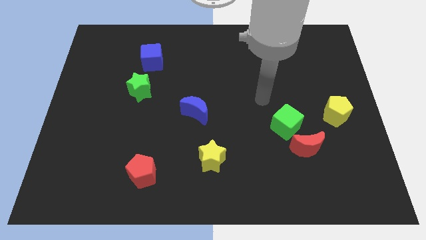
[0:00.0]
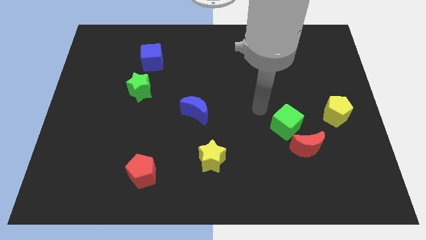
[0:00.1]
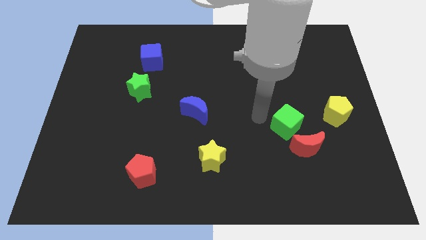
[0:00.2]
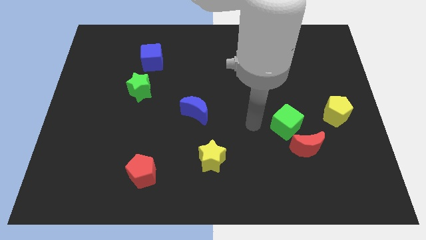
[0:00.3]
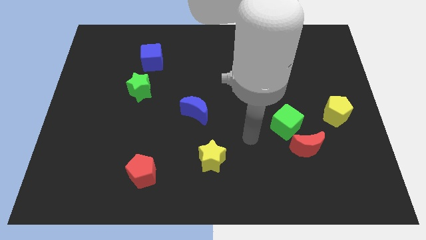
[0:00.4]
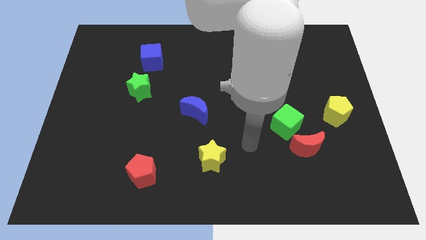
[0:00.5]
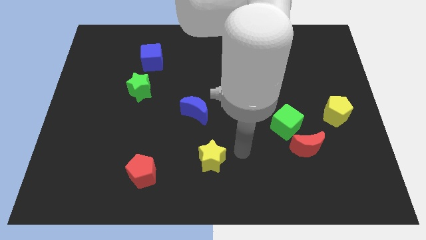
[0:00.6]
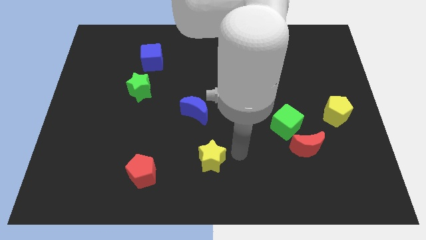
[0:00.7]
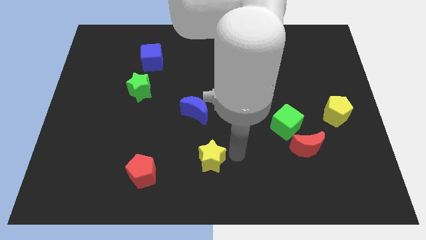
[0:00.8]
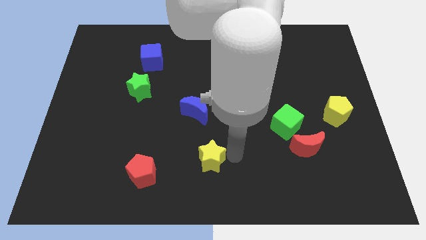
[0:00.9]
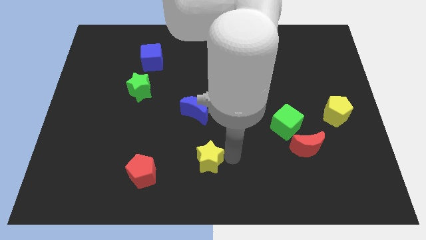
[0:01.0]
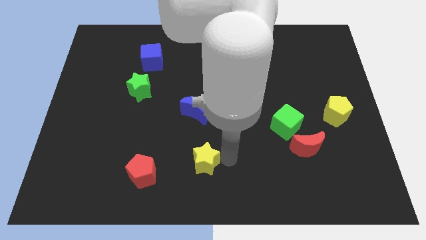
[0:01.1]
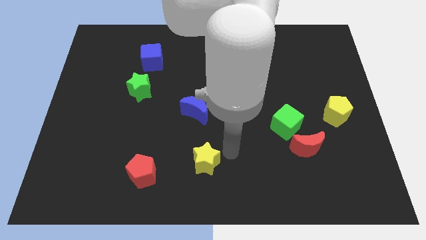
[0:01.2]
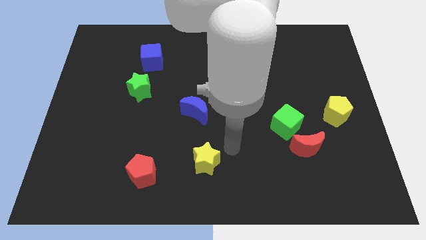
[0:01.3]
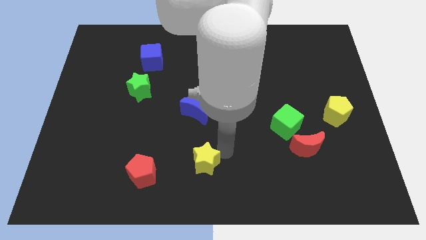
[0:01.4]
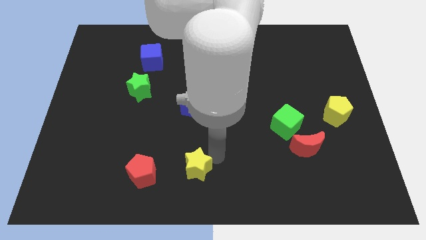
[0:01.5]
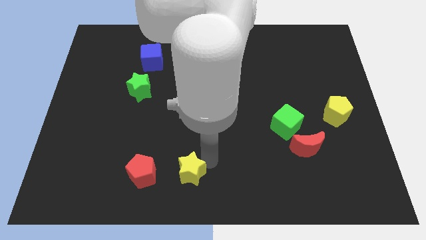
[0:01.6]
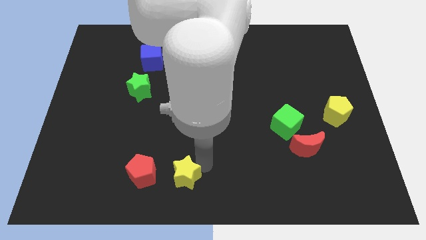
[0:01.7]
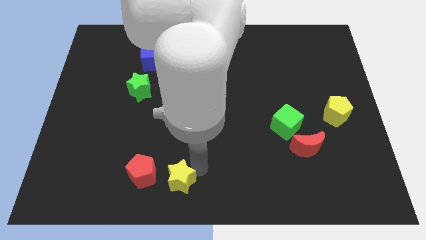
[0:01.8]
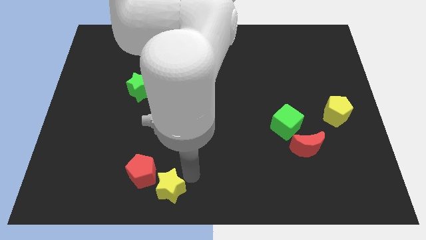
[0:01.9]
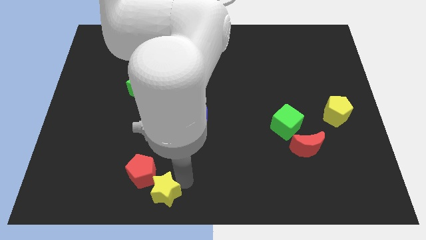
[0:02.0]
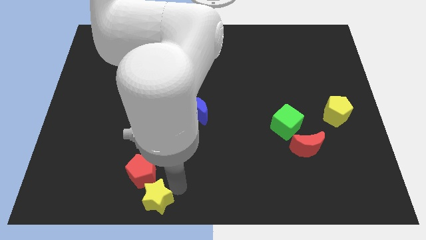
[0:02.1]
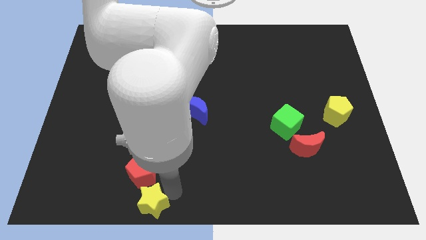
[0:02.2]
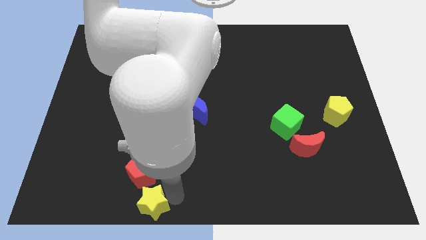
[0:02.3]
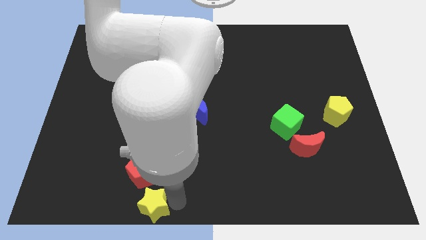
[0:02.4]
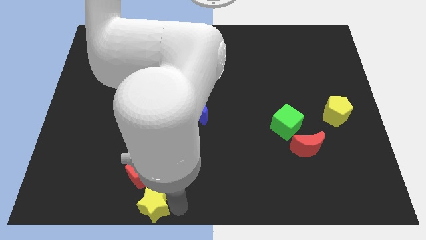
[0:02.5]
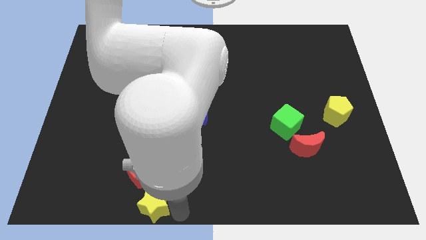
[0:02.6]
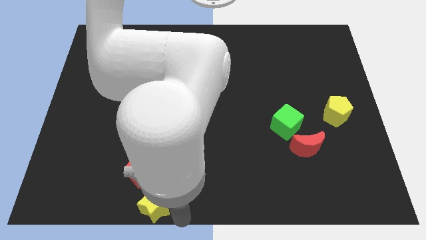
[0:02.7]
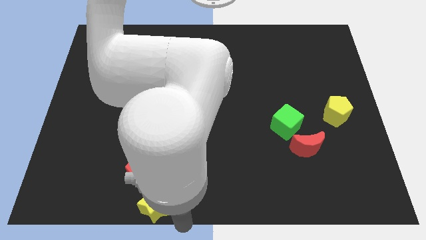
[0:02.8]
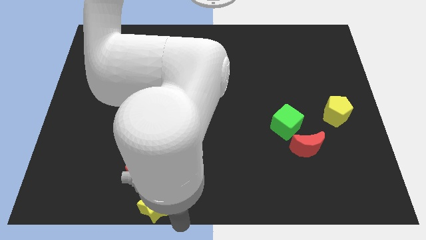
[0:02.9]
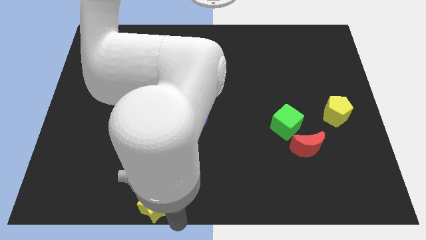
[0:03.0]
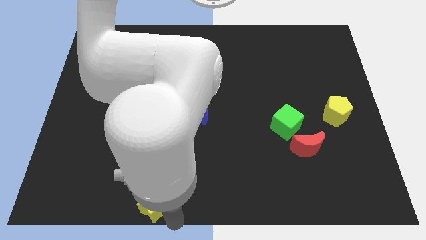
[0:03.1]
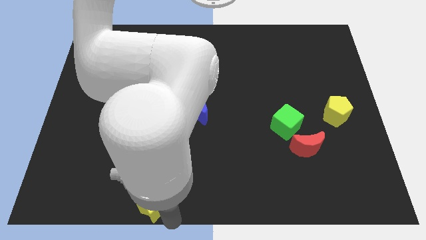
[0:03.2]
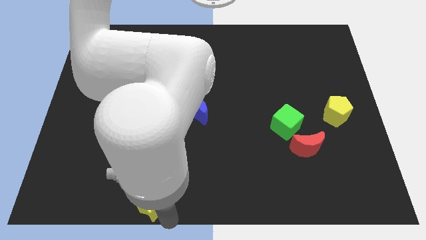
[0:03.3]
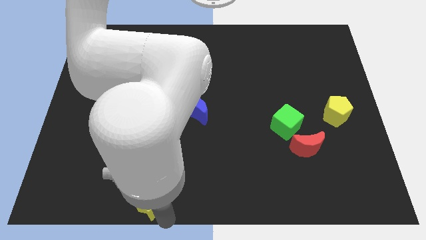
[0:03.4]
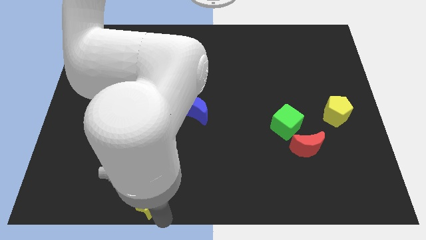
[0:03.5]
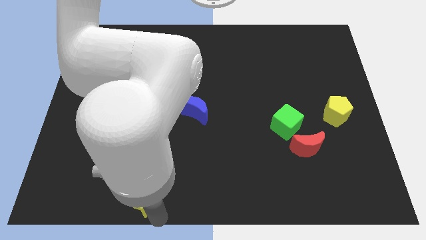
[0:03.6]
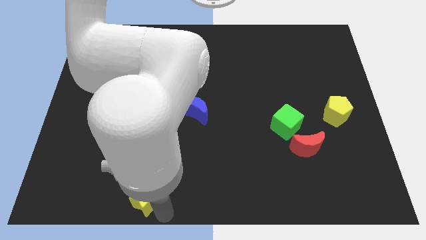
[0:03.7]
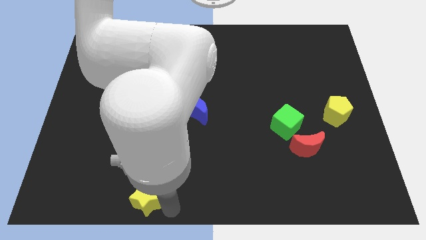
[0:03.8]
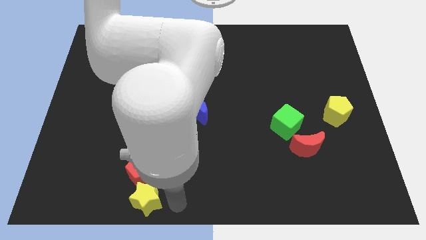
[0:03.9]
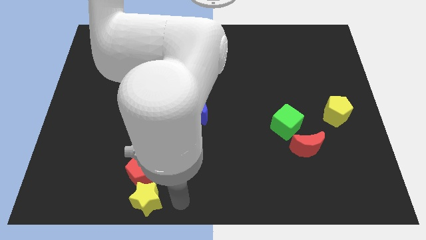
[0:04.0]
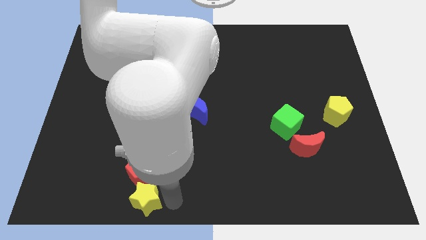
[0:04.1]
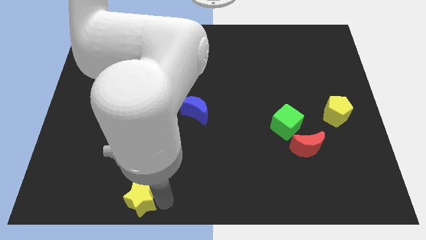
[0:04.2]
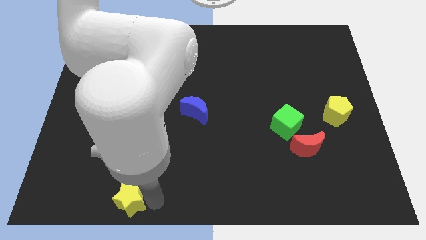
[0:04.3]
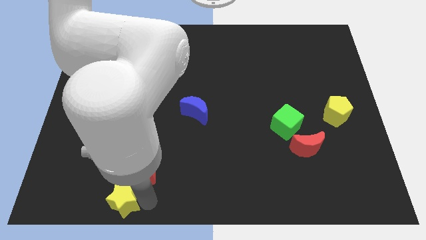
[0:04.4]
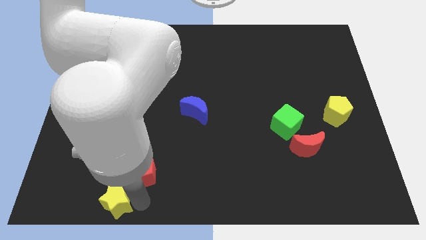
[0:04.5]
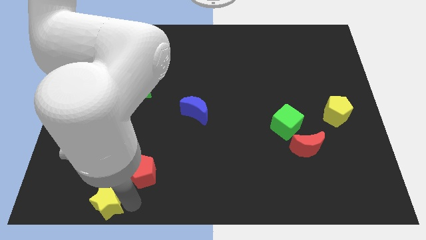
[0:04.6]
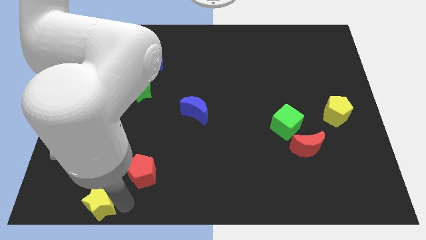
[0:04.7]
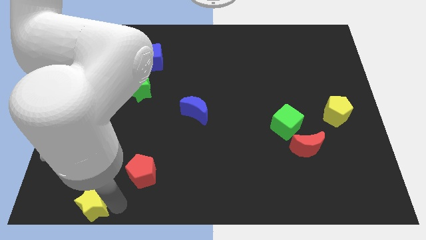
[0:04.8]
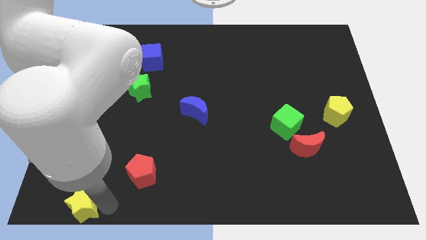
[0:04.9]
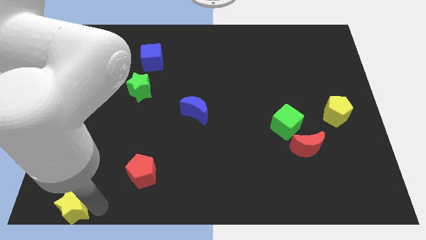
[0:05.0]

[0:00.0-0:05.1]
slide the yellow star to the bottom left of the board

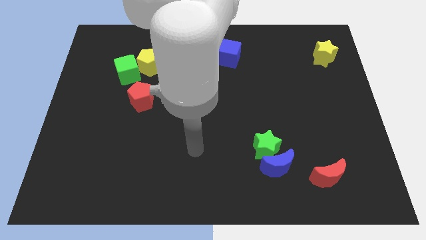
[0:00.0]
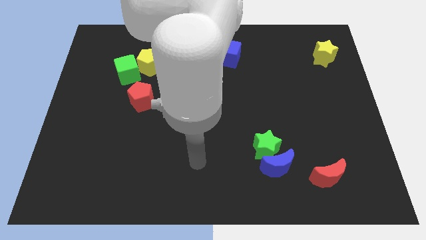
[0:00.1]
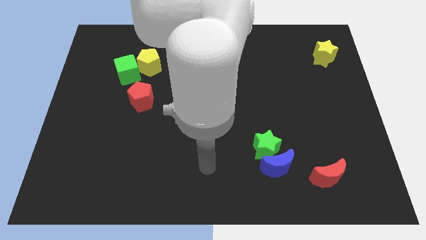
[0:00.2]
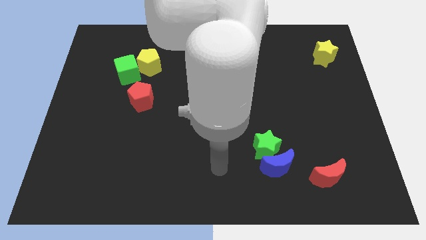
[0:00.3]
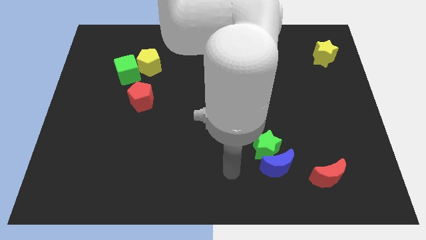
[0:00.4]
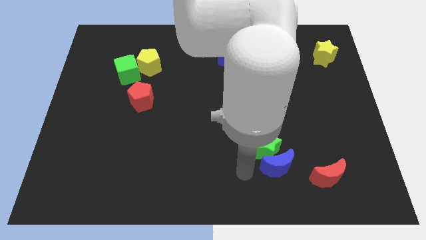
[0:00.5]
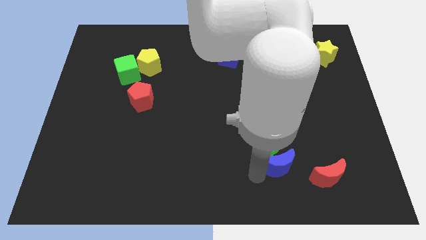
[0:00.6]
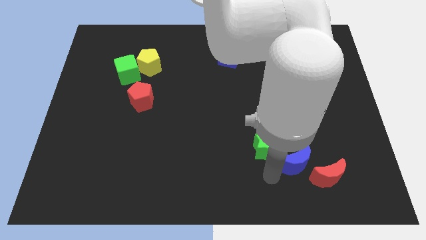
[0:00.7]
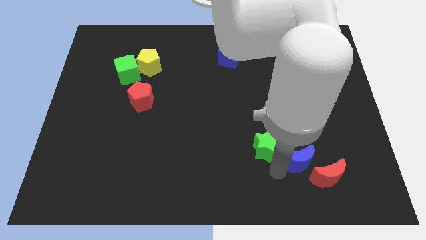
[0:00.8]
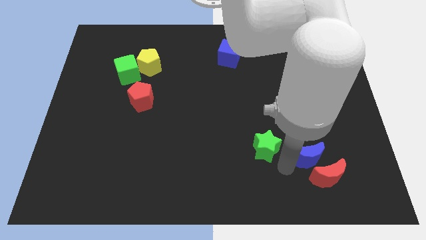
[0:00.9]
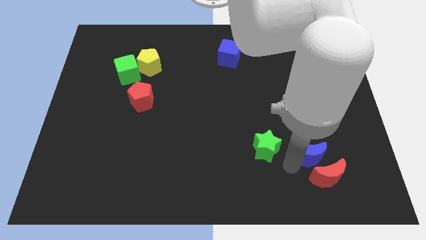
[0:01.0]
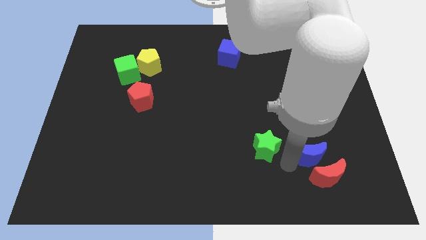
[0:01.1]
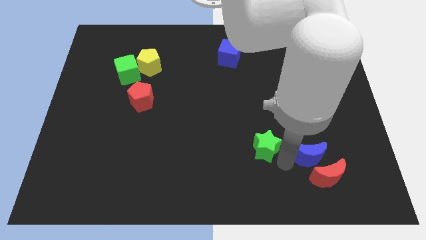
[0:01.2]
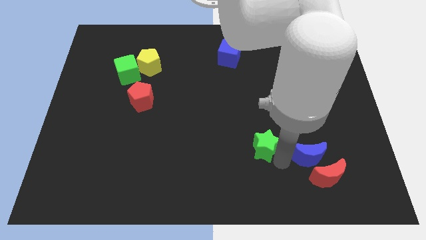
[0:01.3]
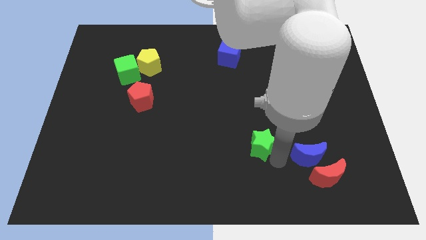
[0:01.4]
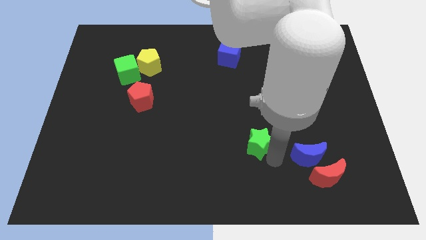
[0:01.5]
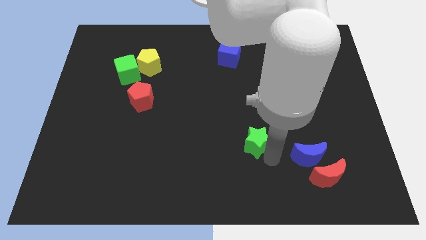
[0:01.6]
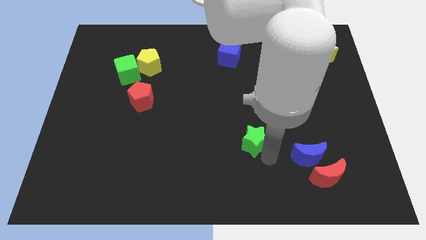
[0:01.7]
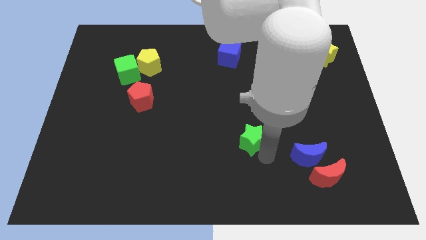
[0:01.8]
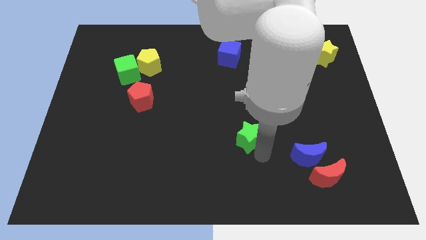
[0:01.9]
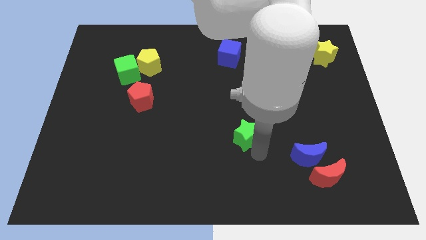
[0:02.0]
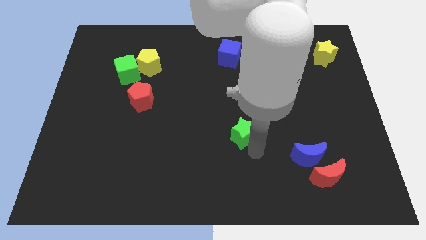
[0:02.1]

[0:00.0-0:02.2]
move the green star to the middle
